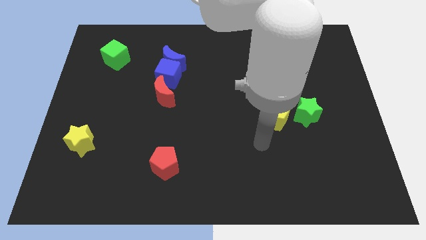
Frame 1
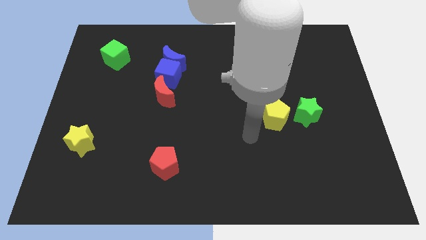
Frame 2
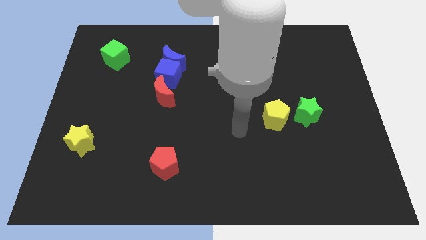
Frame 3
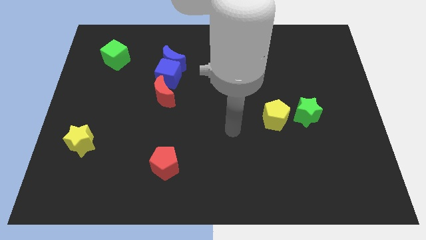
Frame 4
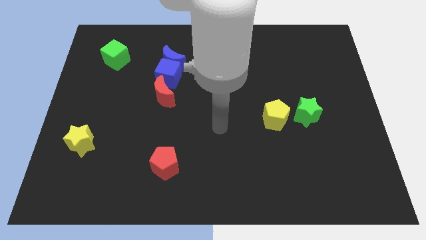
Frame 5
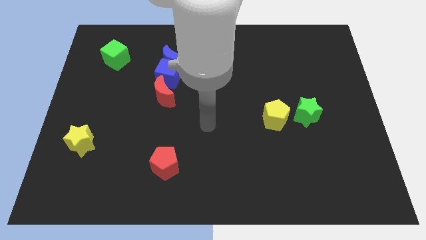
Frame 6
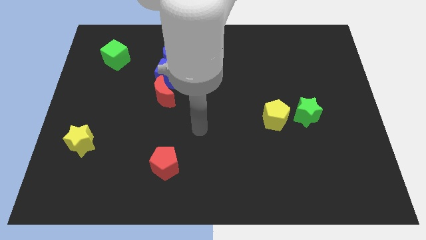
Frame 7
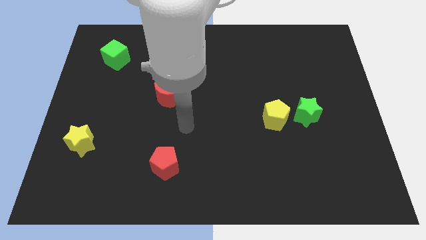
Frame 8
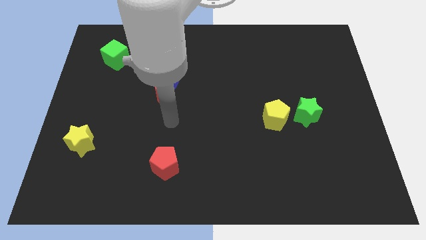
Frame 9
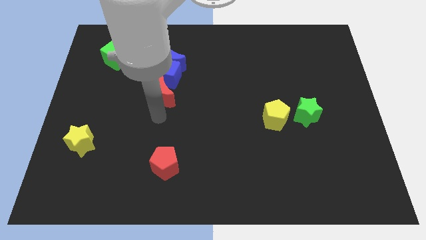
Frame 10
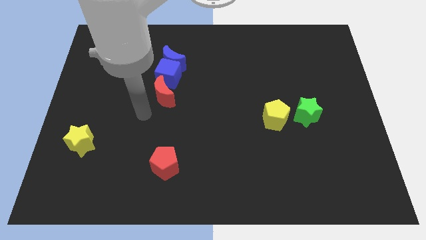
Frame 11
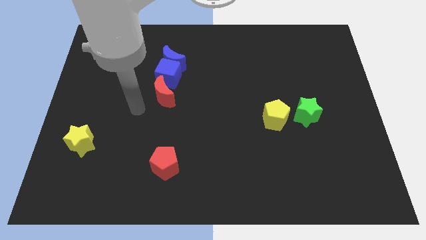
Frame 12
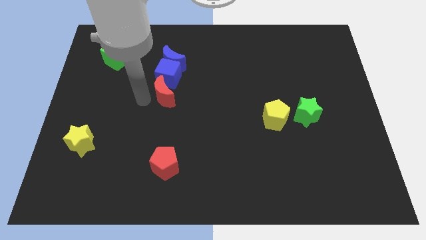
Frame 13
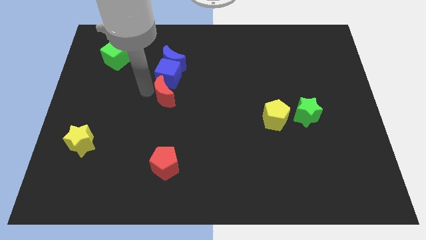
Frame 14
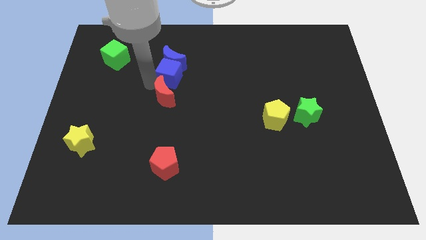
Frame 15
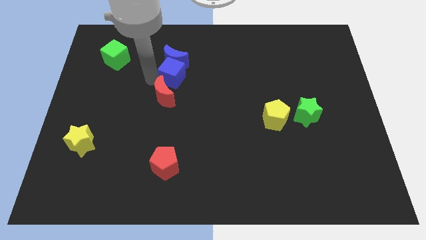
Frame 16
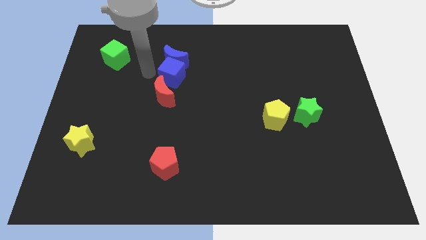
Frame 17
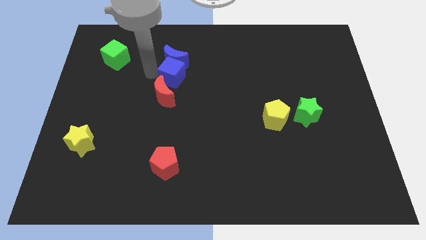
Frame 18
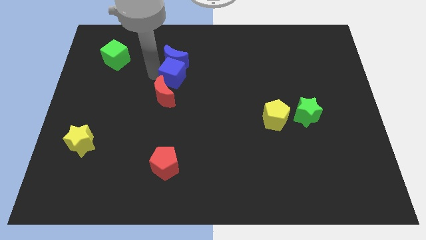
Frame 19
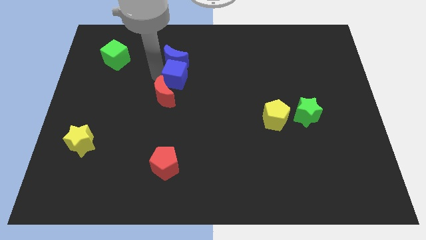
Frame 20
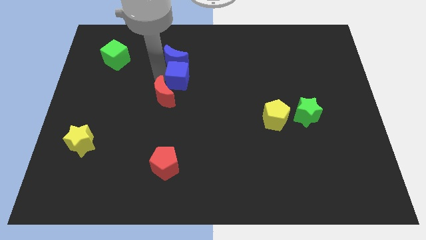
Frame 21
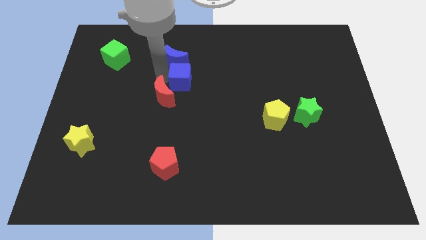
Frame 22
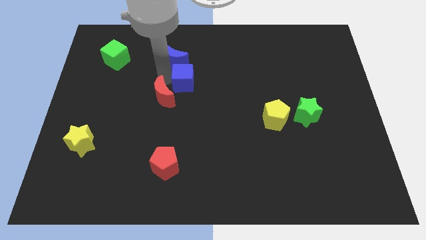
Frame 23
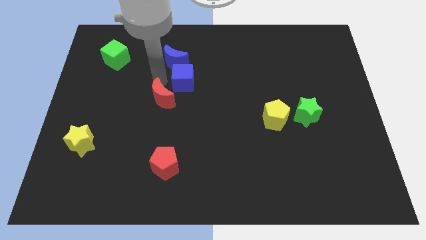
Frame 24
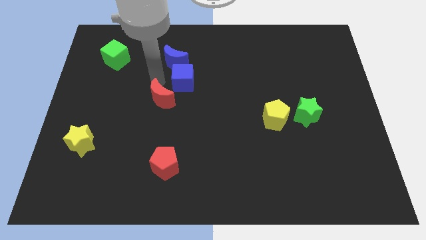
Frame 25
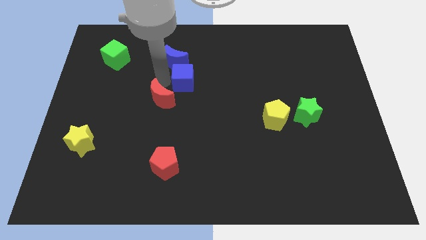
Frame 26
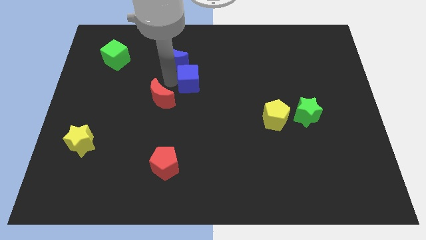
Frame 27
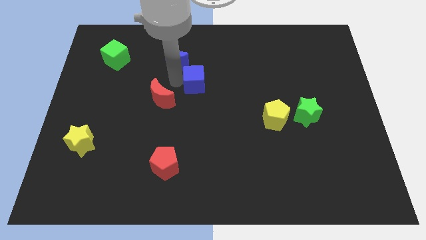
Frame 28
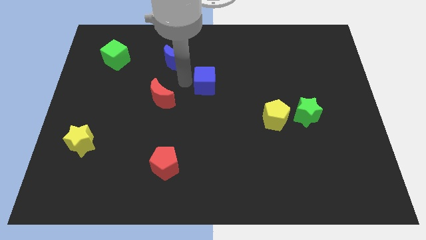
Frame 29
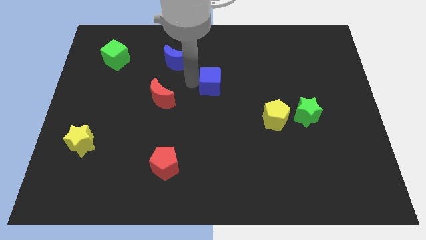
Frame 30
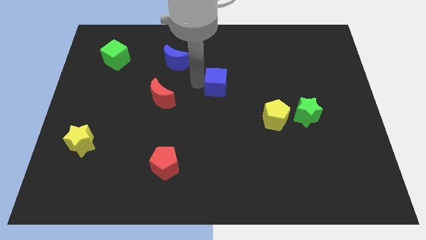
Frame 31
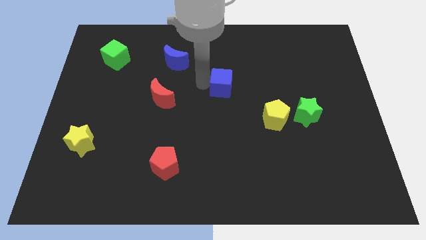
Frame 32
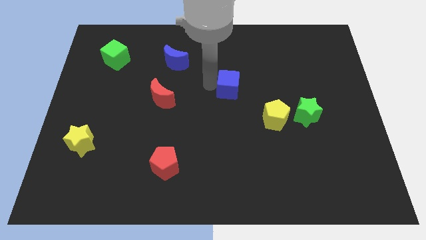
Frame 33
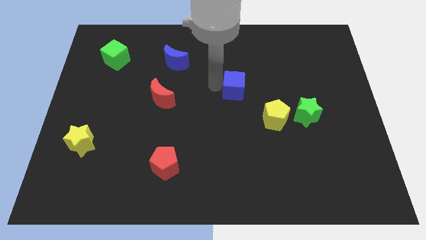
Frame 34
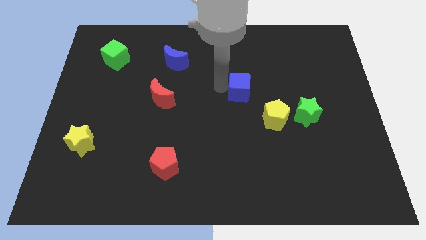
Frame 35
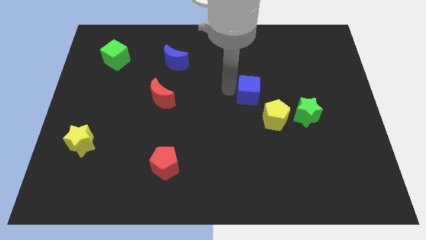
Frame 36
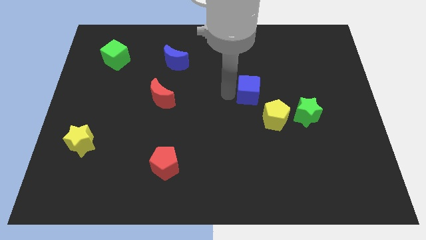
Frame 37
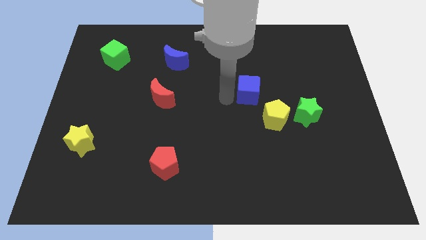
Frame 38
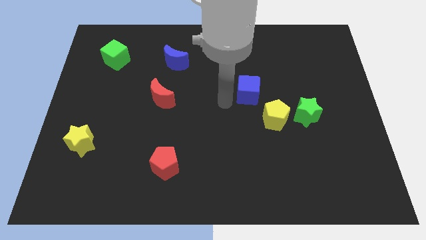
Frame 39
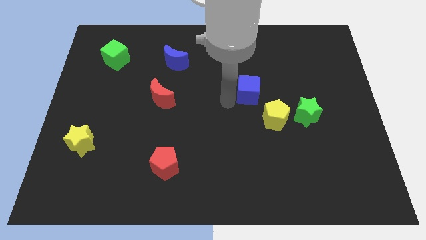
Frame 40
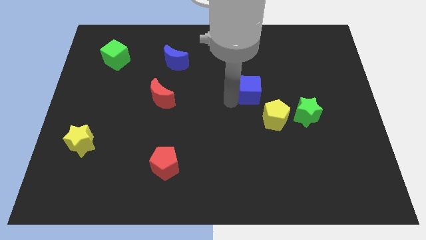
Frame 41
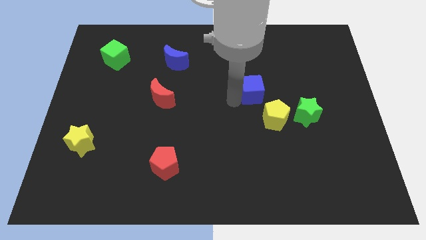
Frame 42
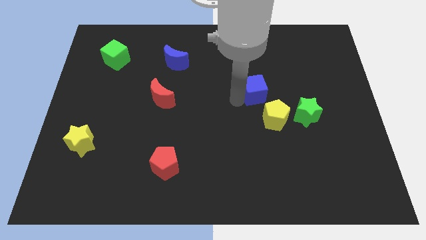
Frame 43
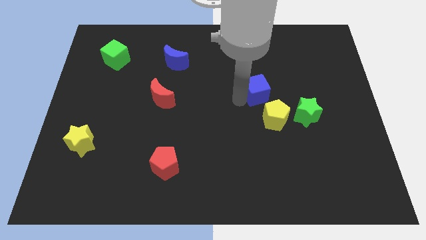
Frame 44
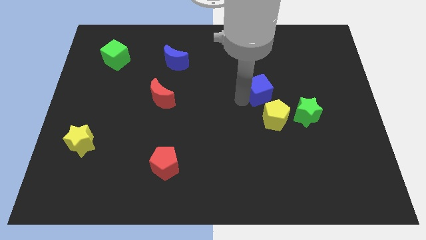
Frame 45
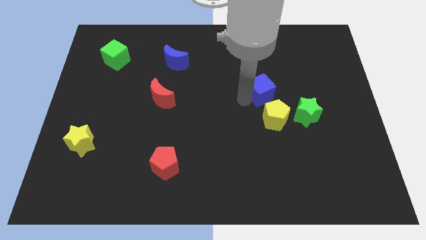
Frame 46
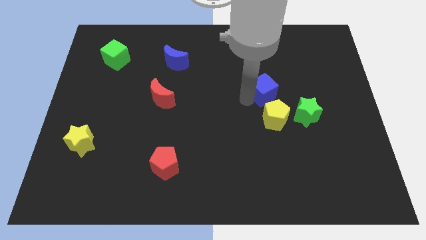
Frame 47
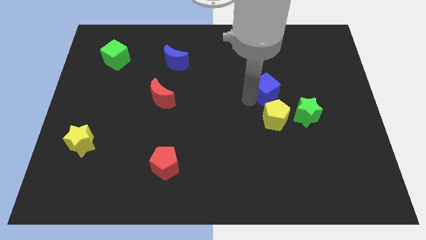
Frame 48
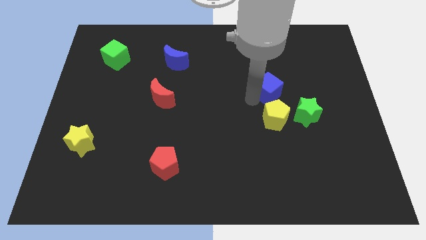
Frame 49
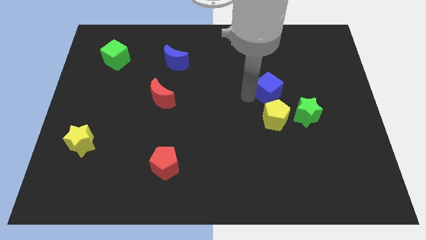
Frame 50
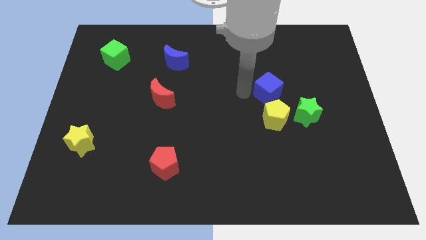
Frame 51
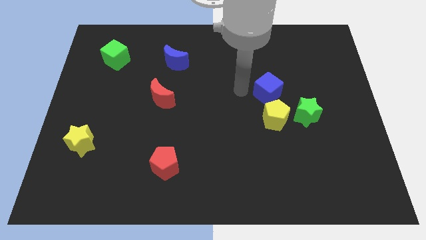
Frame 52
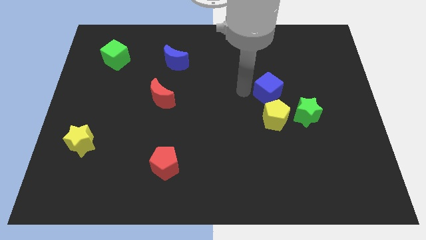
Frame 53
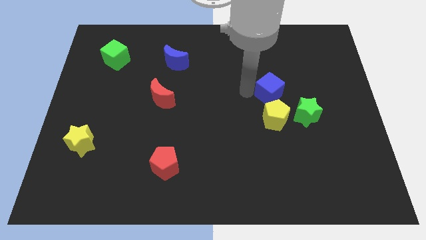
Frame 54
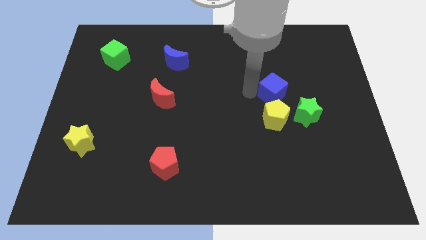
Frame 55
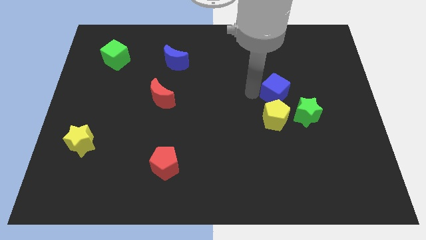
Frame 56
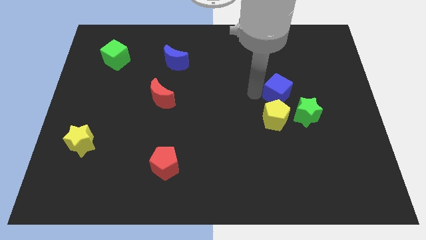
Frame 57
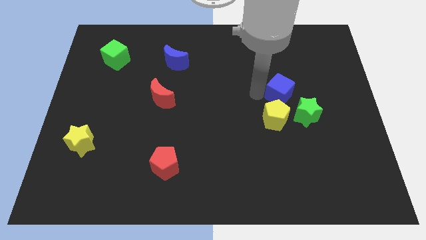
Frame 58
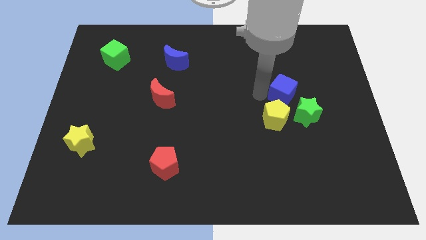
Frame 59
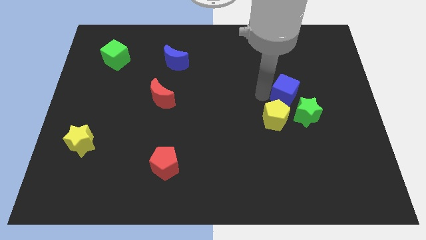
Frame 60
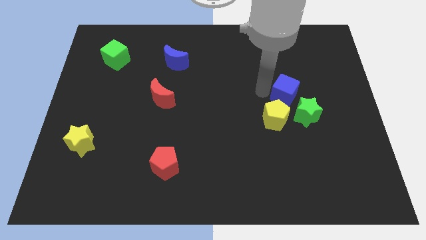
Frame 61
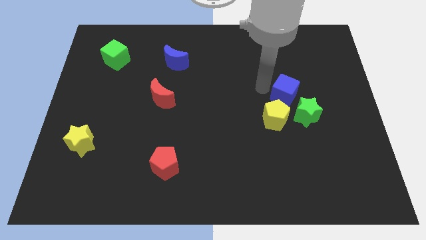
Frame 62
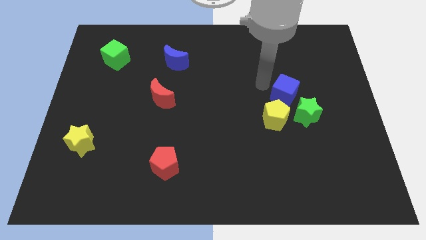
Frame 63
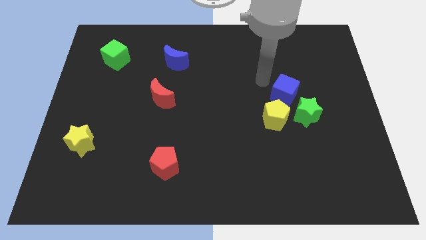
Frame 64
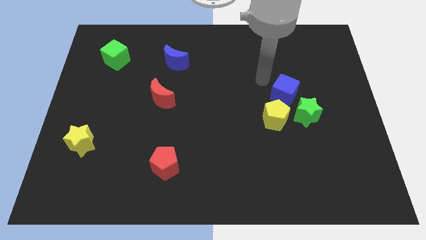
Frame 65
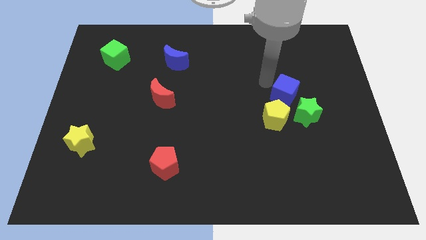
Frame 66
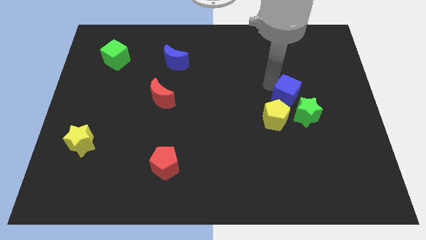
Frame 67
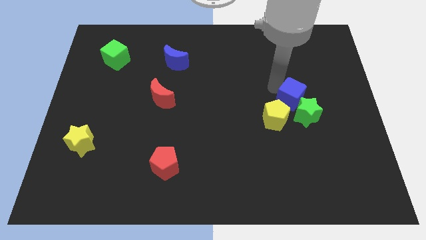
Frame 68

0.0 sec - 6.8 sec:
slide the blue cube close to the green star
